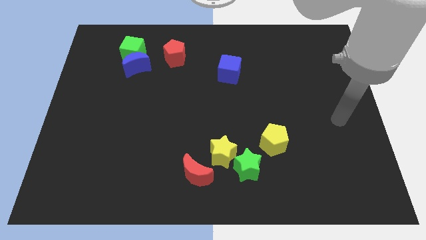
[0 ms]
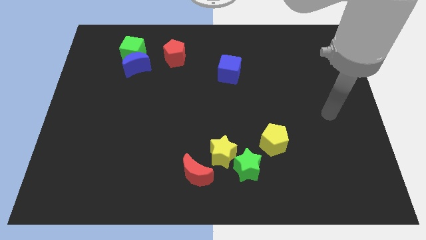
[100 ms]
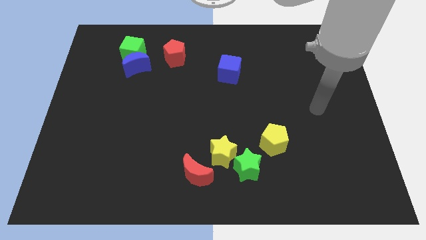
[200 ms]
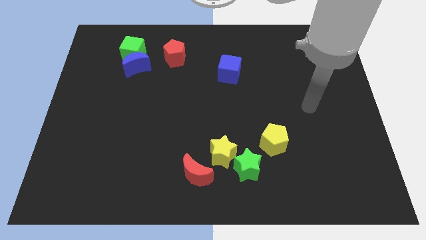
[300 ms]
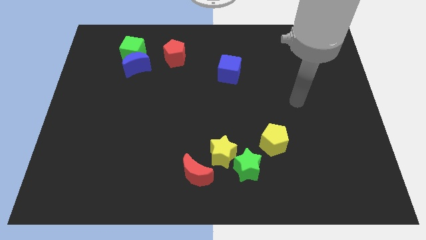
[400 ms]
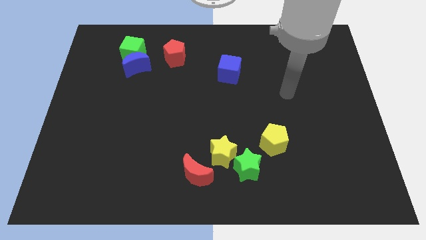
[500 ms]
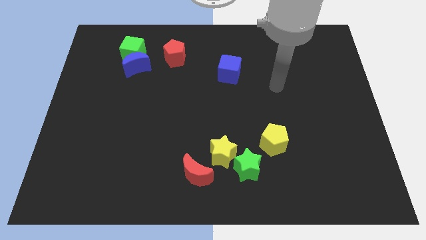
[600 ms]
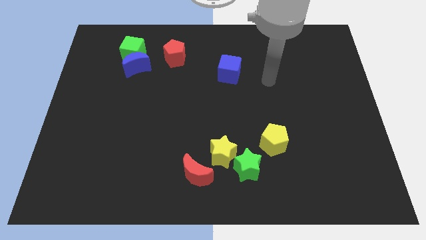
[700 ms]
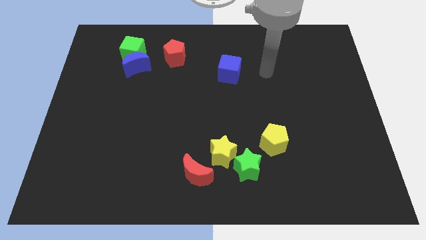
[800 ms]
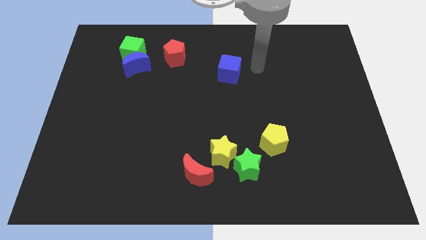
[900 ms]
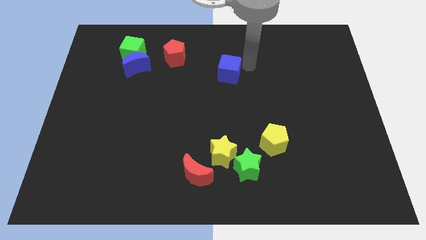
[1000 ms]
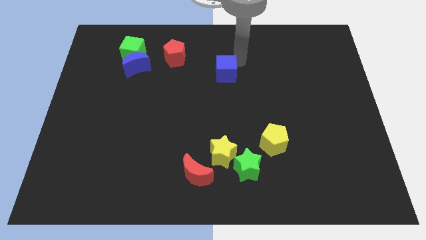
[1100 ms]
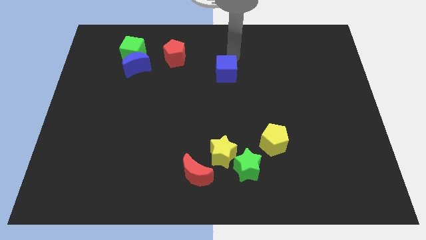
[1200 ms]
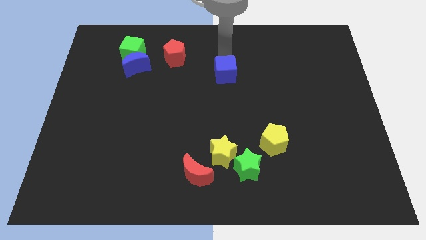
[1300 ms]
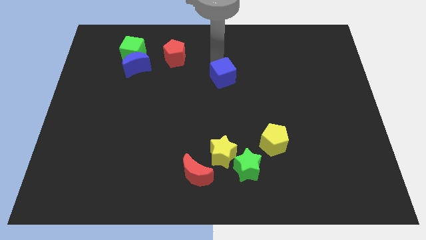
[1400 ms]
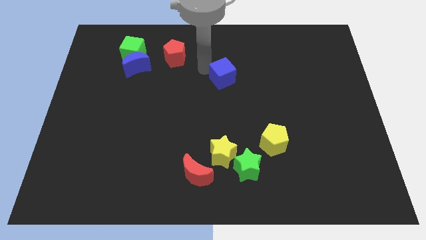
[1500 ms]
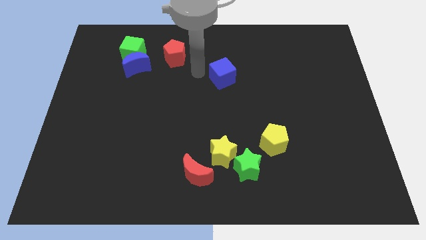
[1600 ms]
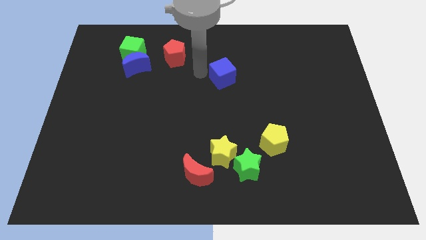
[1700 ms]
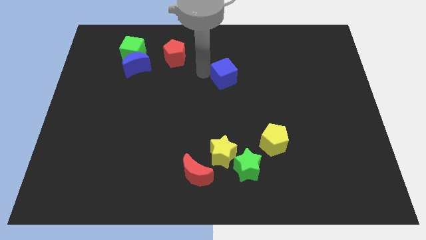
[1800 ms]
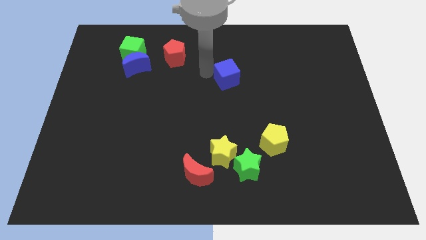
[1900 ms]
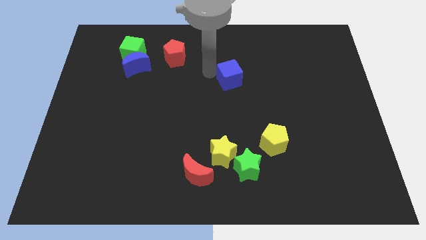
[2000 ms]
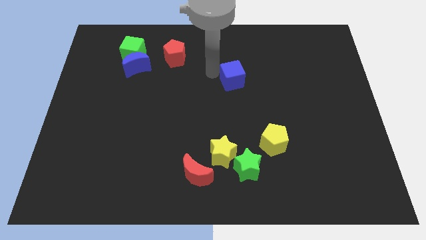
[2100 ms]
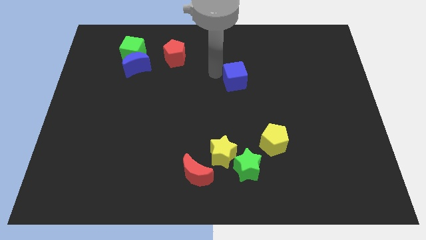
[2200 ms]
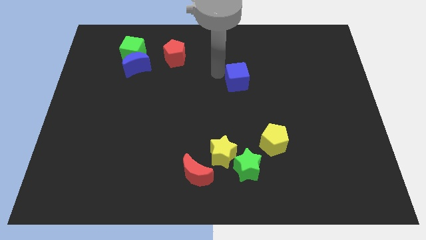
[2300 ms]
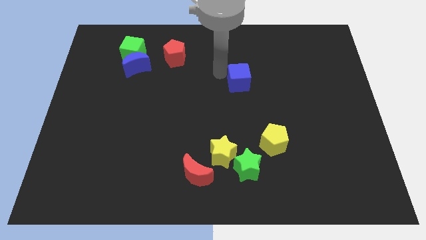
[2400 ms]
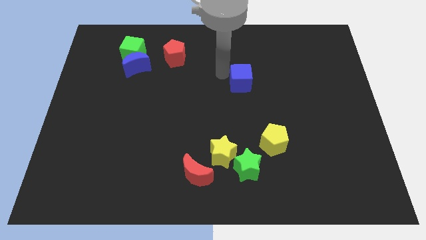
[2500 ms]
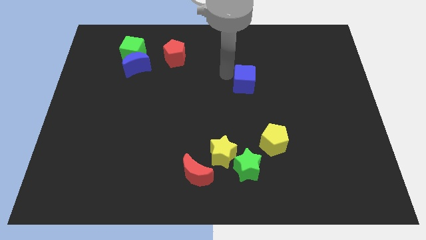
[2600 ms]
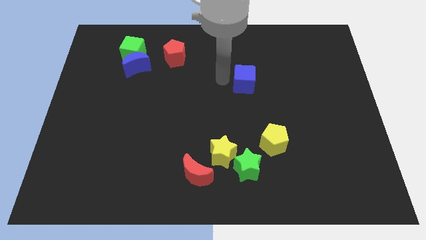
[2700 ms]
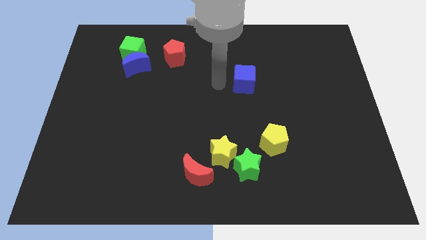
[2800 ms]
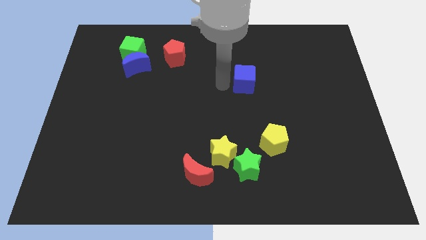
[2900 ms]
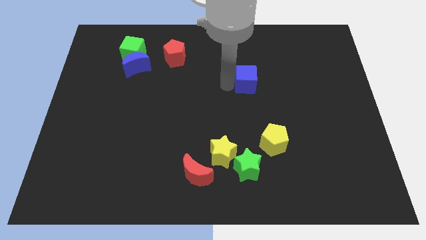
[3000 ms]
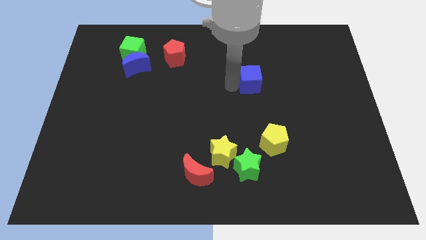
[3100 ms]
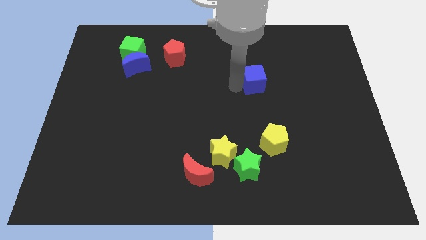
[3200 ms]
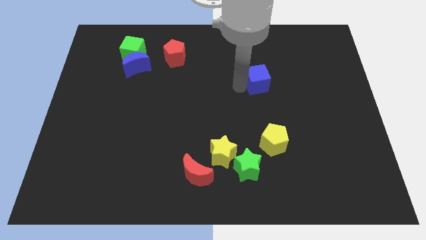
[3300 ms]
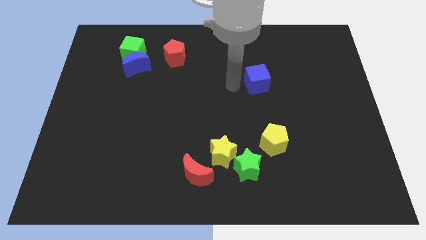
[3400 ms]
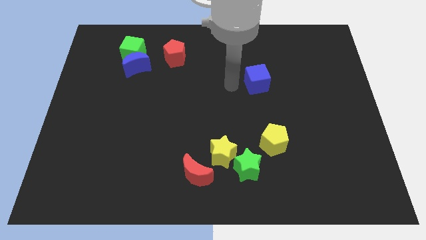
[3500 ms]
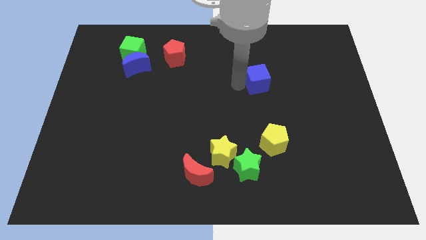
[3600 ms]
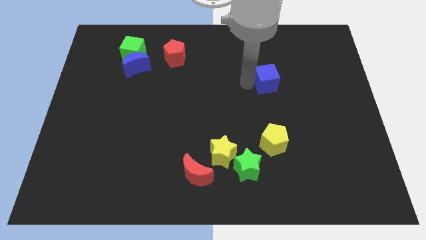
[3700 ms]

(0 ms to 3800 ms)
slide the blue cube right slightly

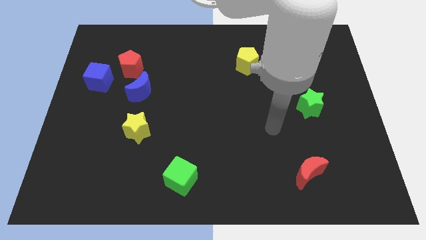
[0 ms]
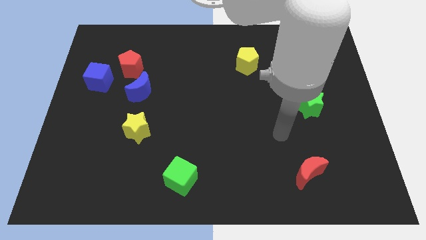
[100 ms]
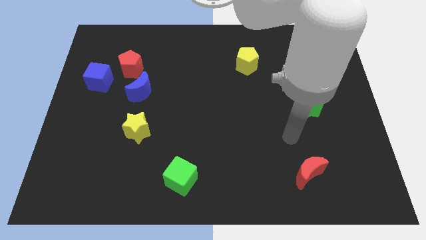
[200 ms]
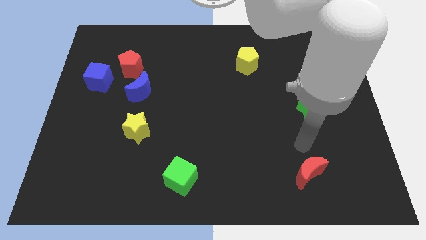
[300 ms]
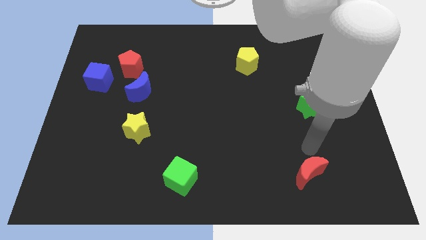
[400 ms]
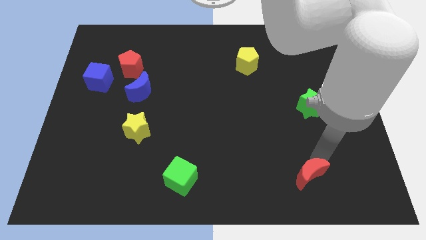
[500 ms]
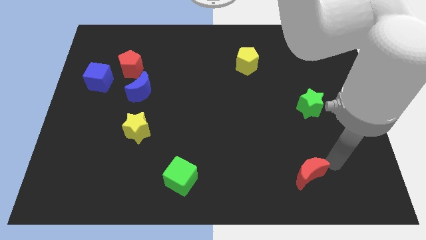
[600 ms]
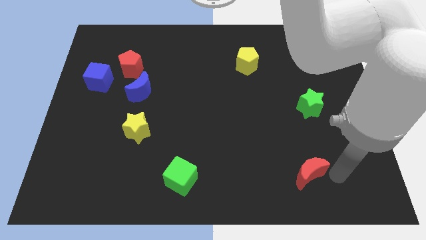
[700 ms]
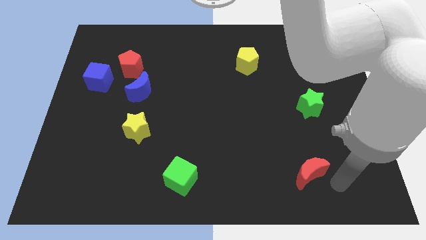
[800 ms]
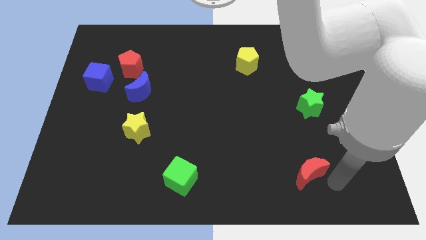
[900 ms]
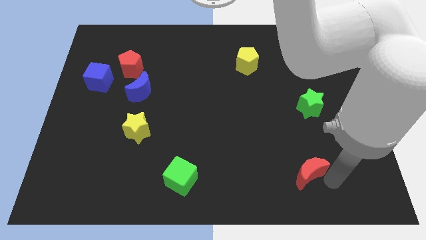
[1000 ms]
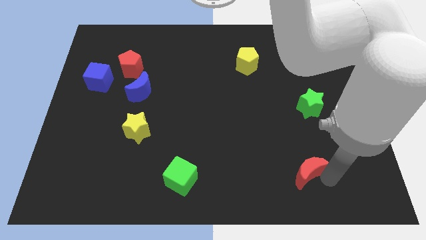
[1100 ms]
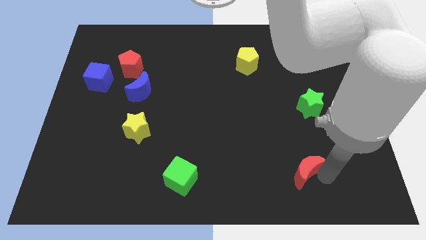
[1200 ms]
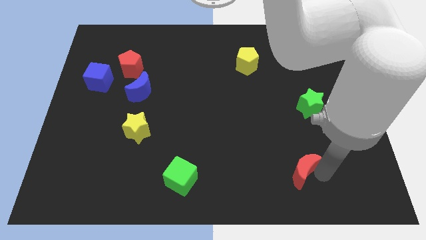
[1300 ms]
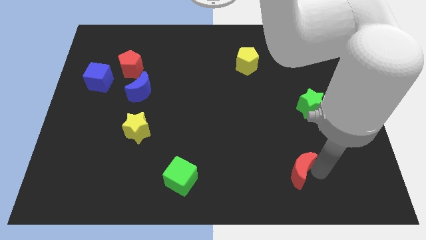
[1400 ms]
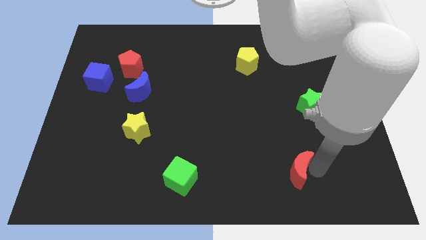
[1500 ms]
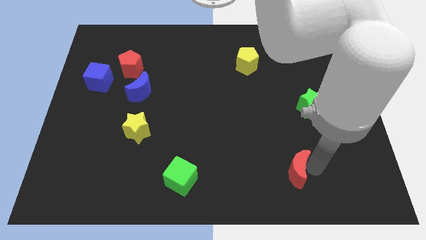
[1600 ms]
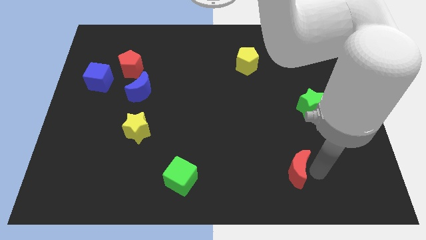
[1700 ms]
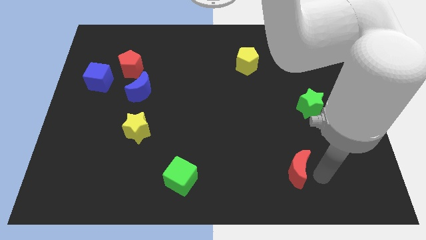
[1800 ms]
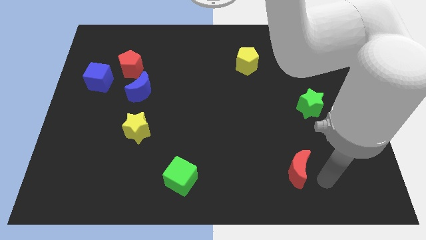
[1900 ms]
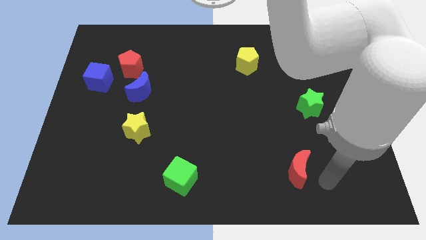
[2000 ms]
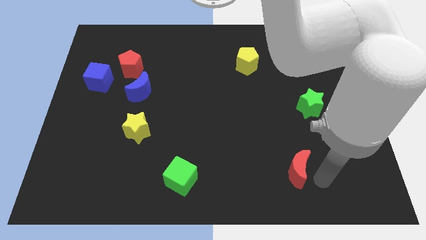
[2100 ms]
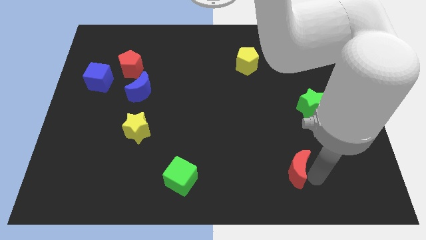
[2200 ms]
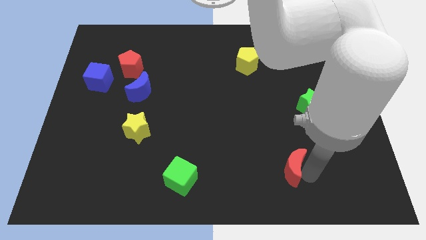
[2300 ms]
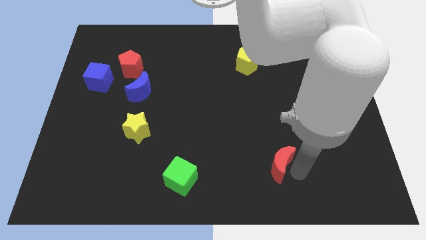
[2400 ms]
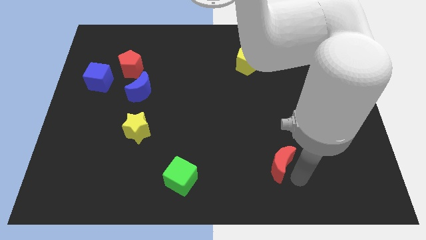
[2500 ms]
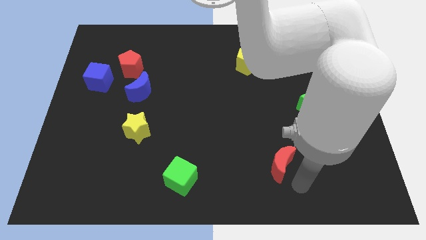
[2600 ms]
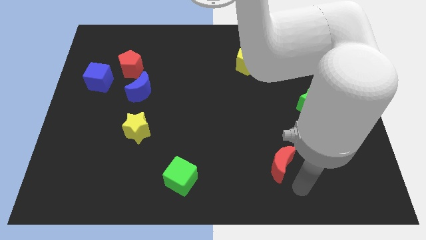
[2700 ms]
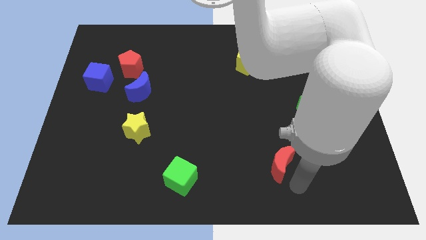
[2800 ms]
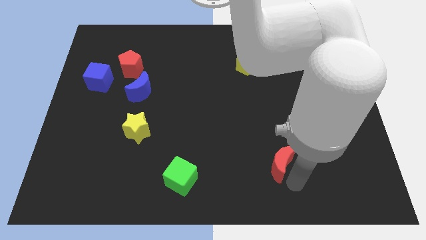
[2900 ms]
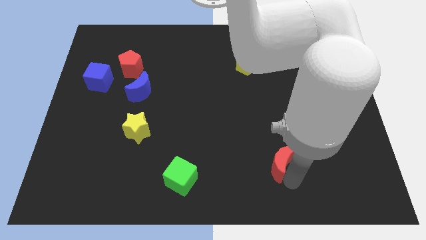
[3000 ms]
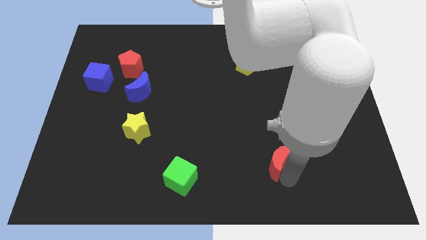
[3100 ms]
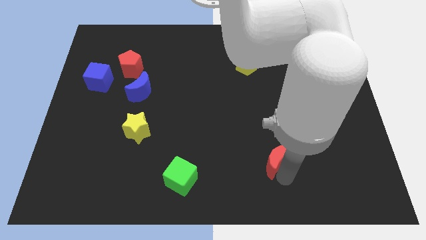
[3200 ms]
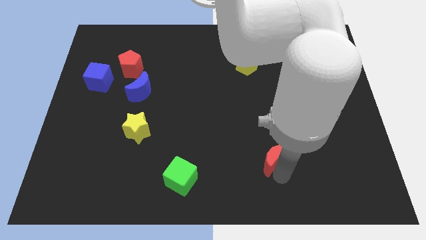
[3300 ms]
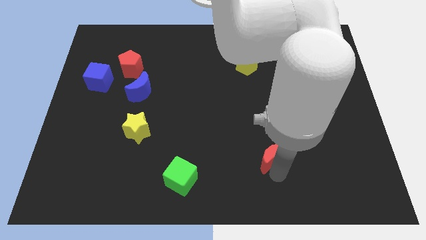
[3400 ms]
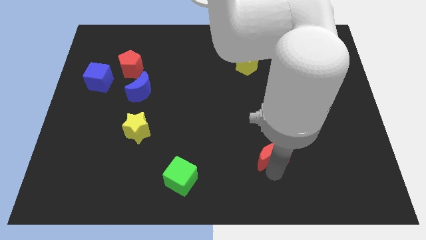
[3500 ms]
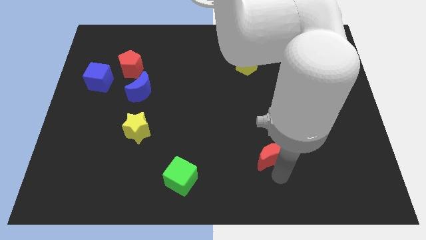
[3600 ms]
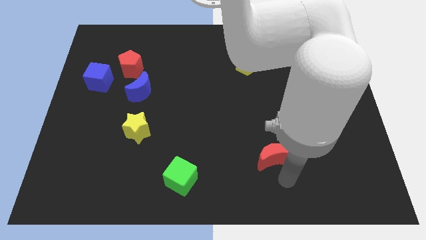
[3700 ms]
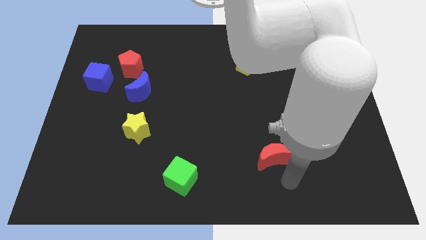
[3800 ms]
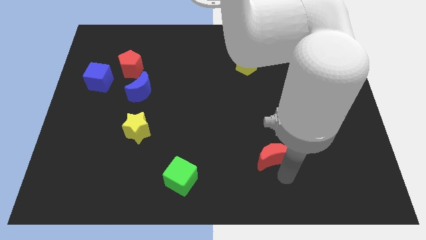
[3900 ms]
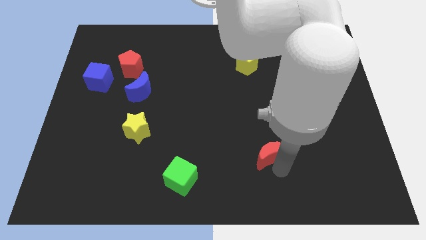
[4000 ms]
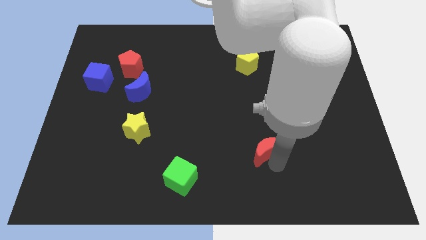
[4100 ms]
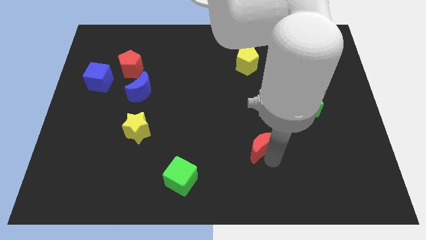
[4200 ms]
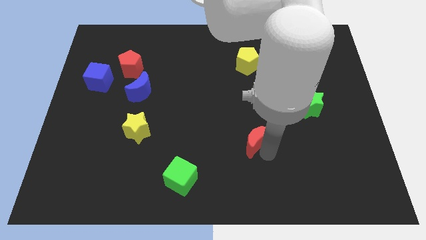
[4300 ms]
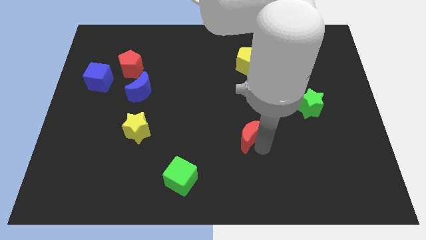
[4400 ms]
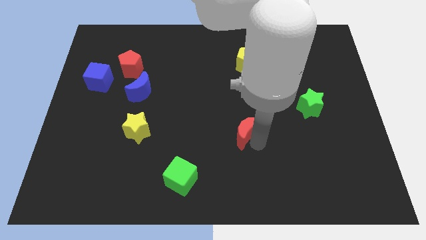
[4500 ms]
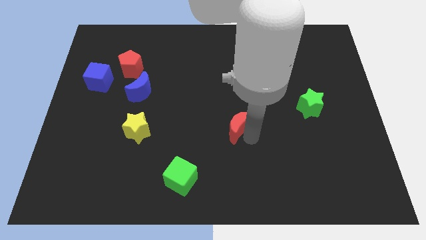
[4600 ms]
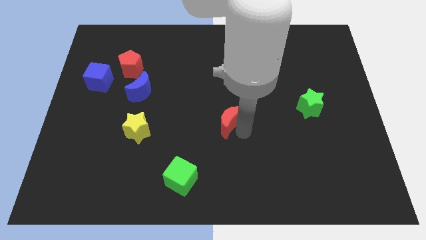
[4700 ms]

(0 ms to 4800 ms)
push the red moon diagonally up and left
